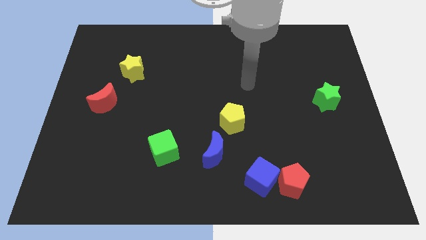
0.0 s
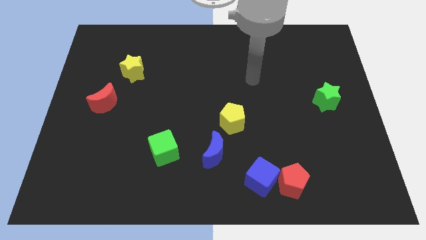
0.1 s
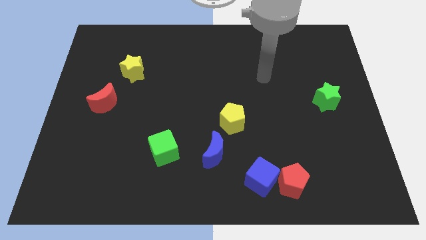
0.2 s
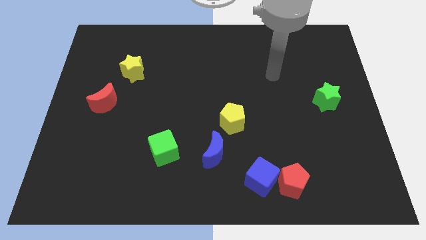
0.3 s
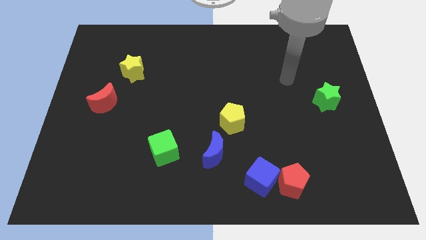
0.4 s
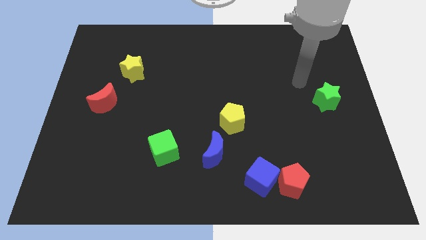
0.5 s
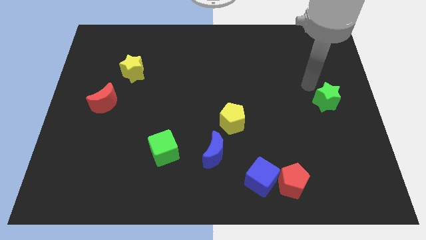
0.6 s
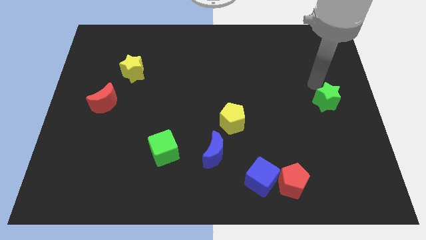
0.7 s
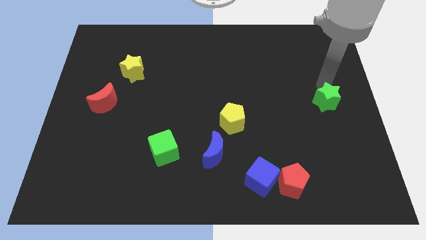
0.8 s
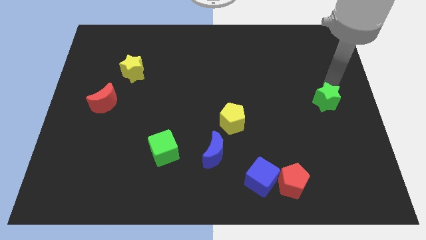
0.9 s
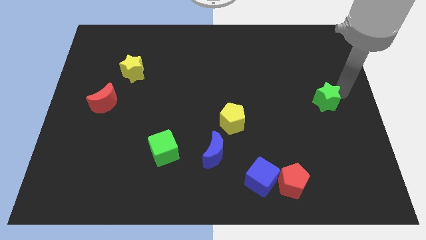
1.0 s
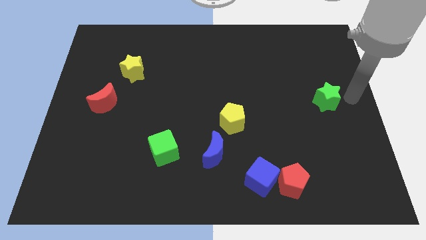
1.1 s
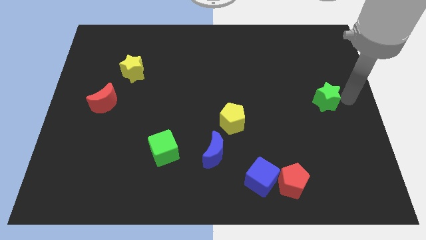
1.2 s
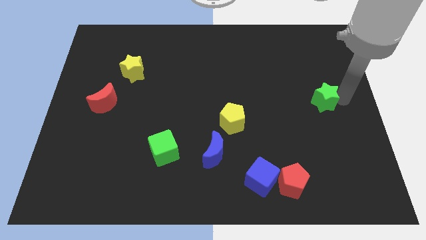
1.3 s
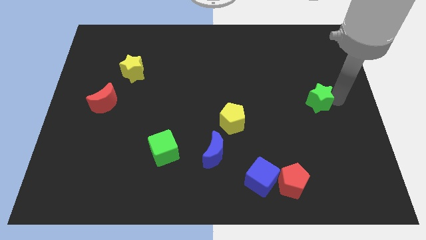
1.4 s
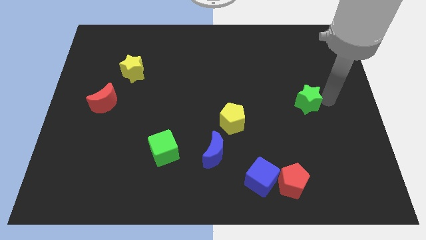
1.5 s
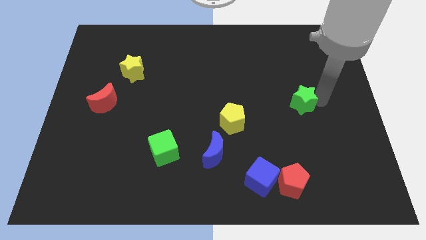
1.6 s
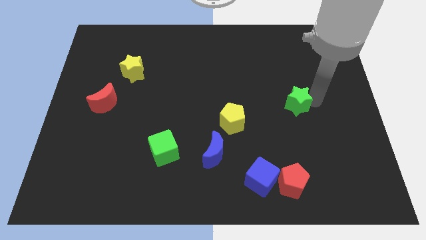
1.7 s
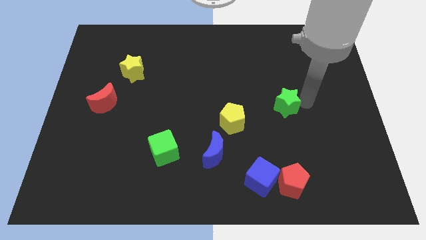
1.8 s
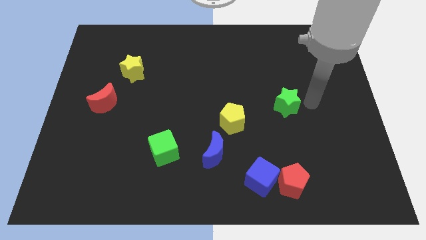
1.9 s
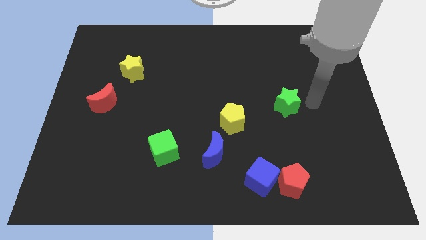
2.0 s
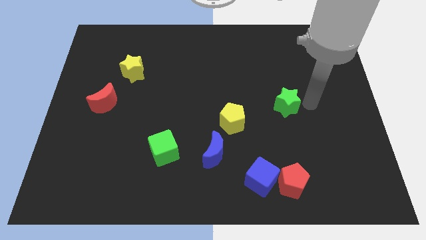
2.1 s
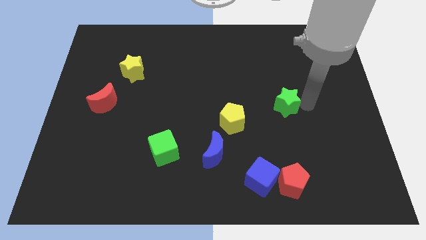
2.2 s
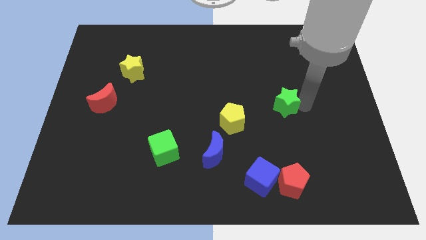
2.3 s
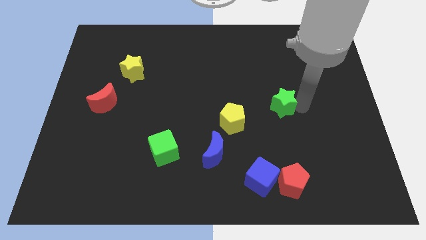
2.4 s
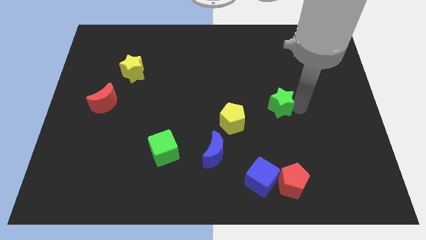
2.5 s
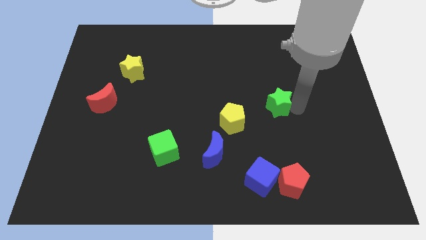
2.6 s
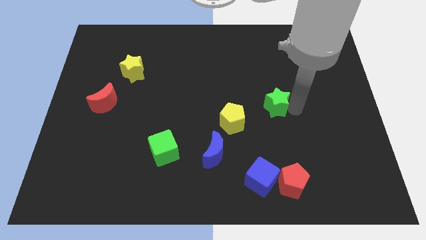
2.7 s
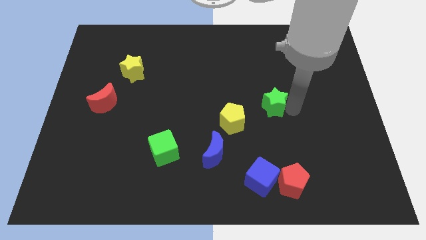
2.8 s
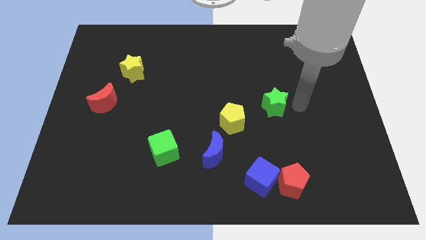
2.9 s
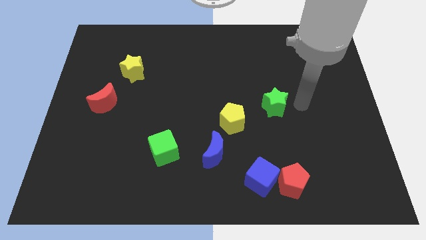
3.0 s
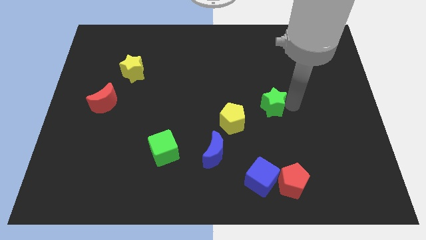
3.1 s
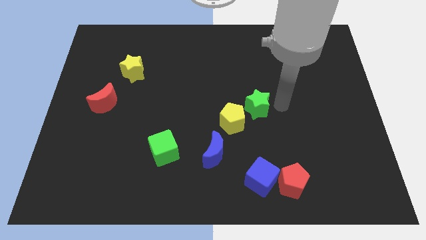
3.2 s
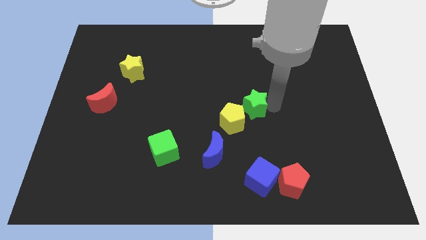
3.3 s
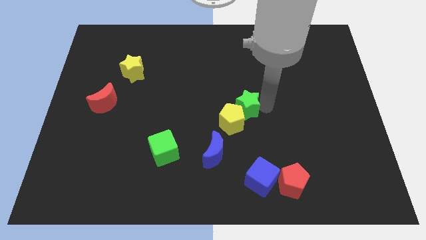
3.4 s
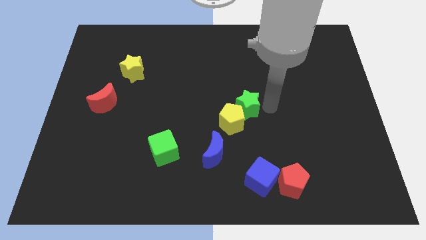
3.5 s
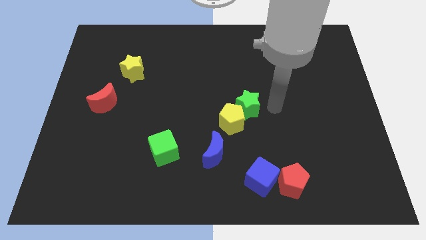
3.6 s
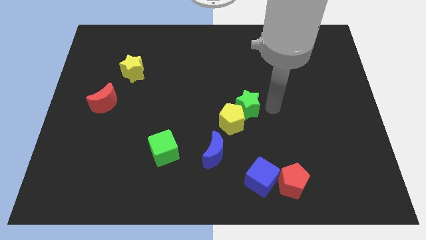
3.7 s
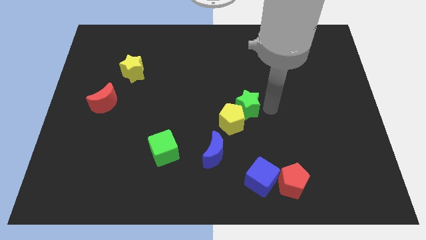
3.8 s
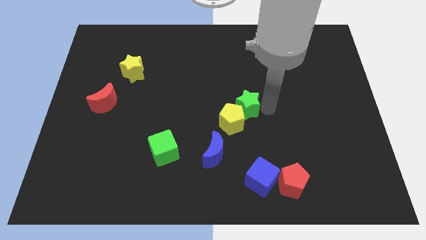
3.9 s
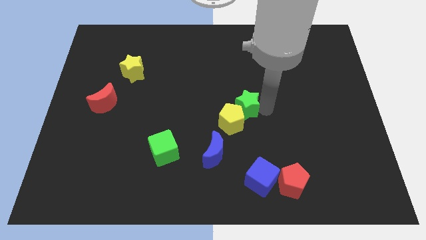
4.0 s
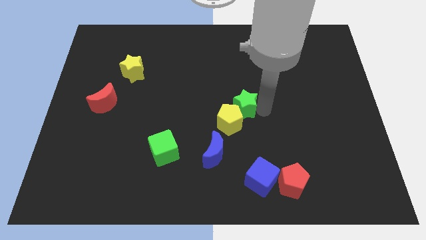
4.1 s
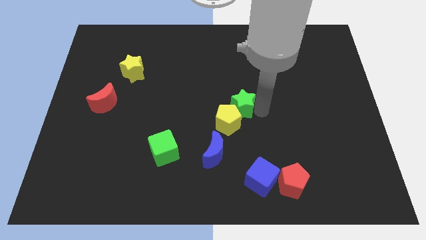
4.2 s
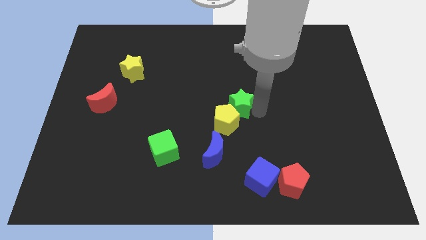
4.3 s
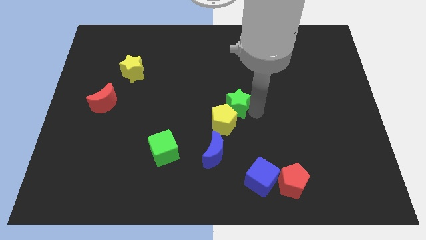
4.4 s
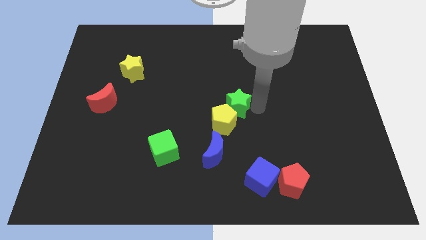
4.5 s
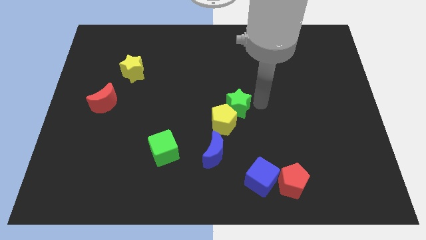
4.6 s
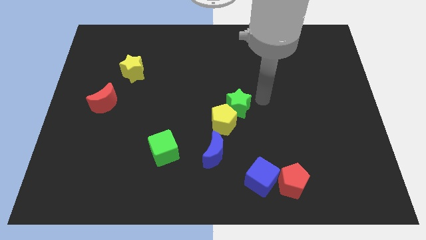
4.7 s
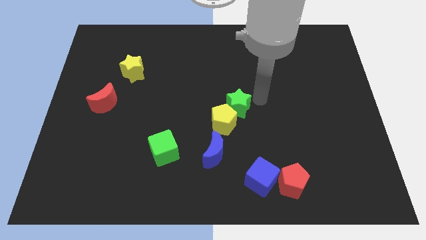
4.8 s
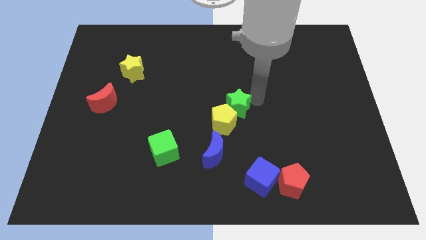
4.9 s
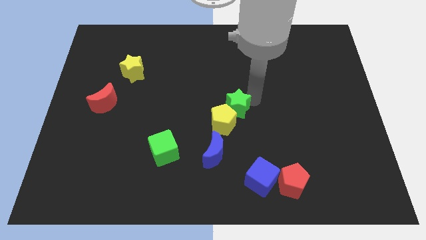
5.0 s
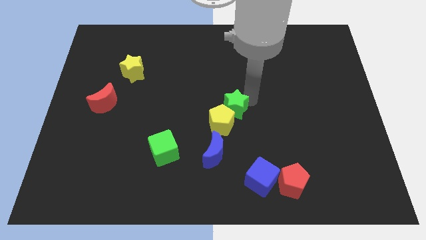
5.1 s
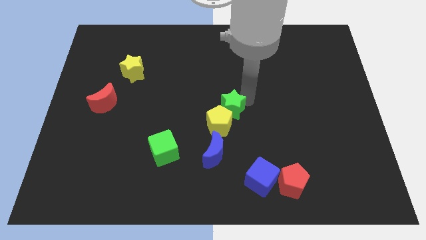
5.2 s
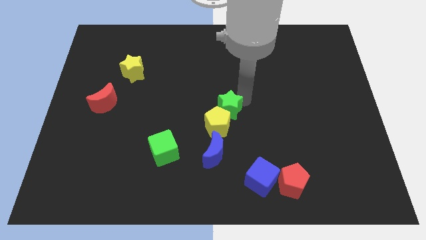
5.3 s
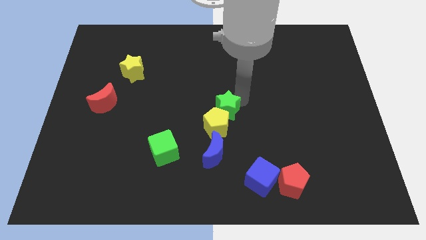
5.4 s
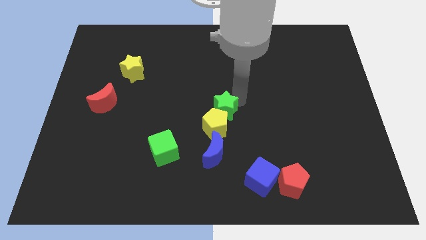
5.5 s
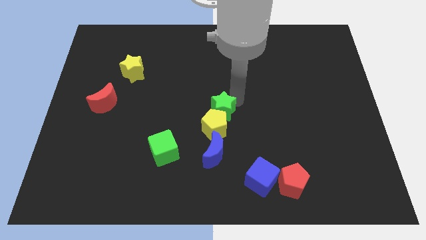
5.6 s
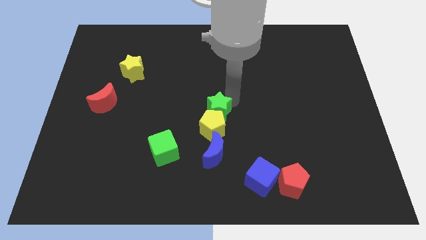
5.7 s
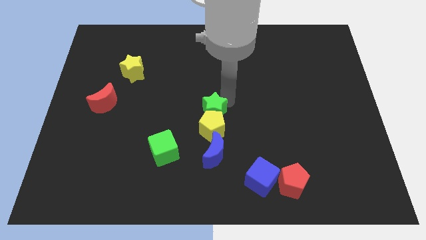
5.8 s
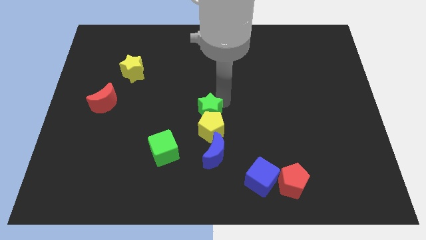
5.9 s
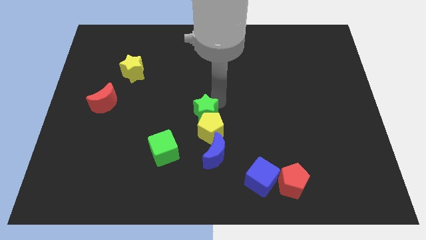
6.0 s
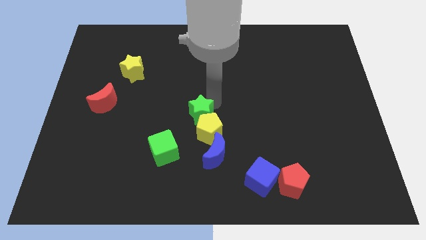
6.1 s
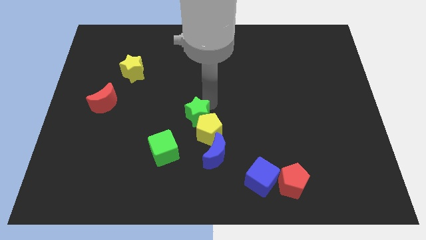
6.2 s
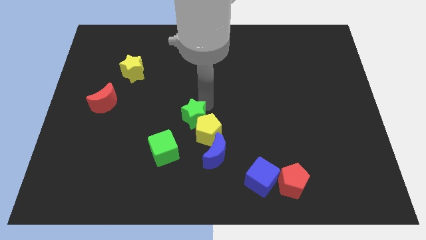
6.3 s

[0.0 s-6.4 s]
slide the green star to the left side of the yellow pentagon
